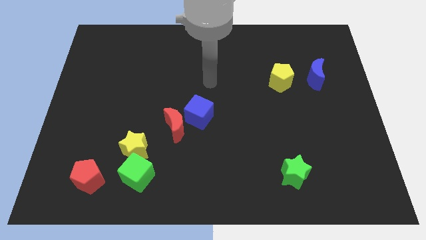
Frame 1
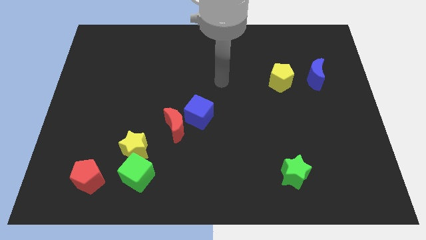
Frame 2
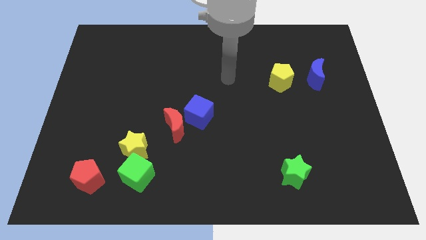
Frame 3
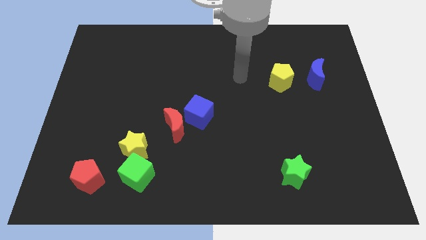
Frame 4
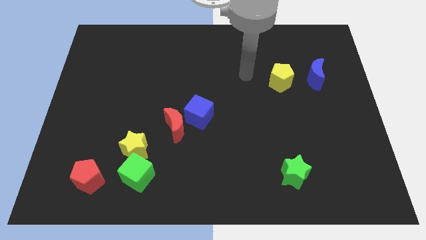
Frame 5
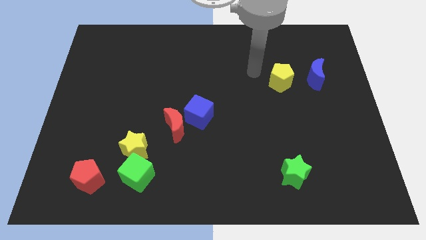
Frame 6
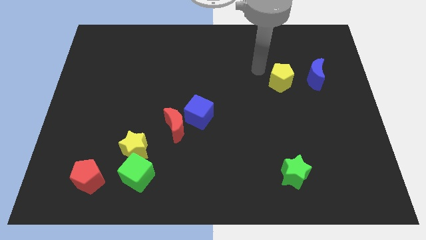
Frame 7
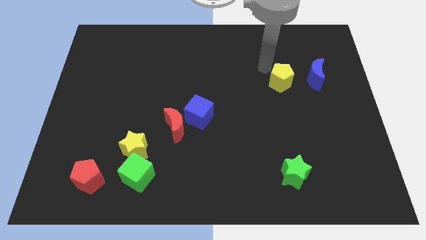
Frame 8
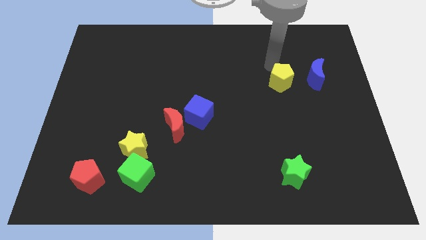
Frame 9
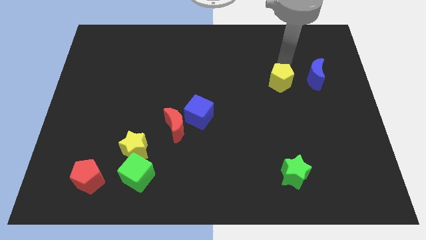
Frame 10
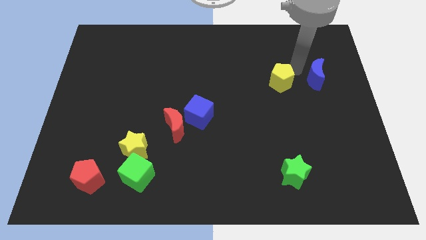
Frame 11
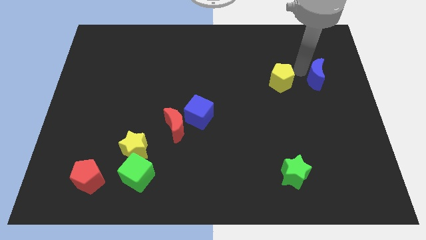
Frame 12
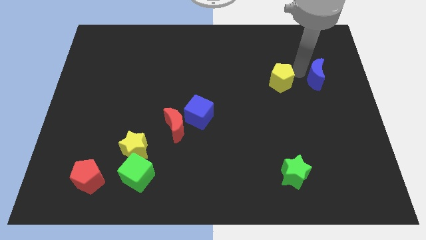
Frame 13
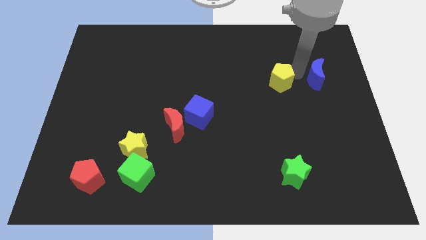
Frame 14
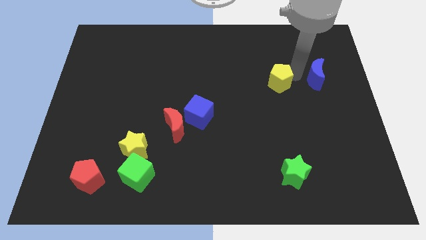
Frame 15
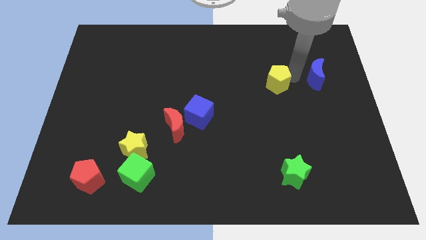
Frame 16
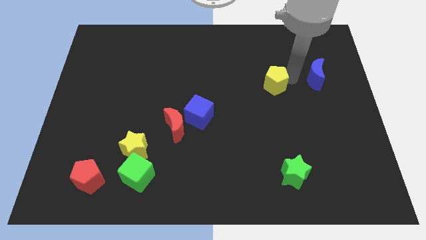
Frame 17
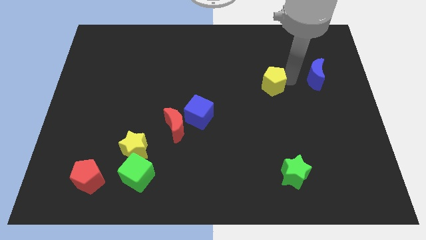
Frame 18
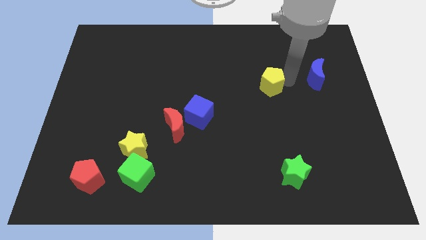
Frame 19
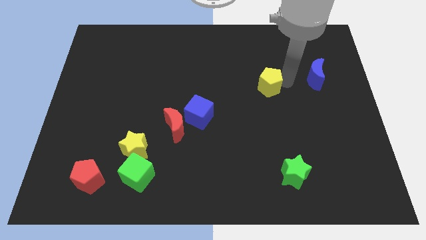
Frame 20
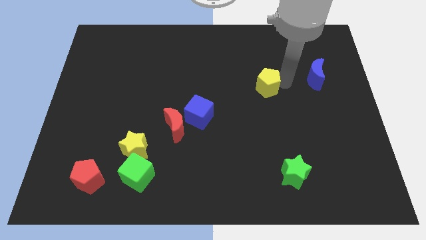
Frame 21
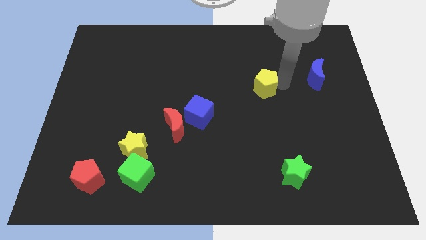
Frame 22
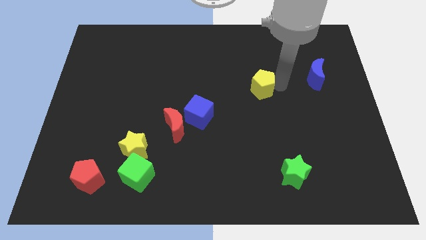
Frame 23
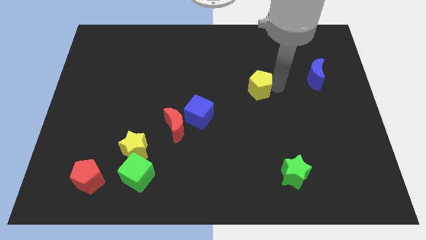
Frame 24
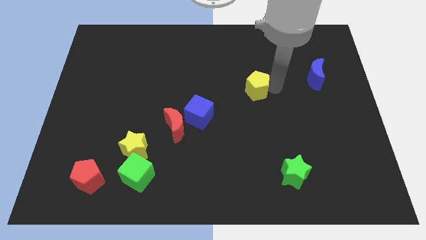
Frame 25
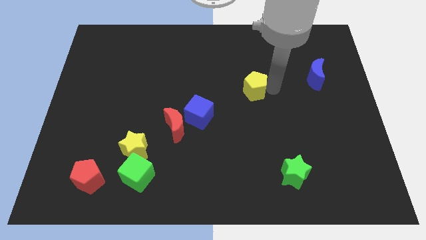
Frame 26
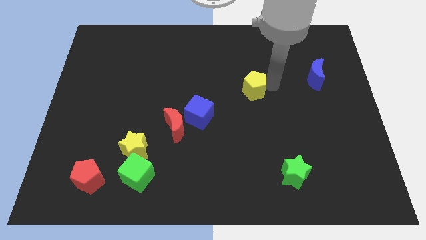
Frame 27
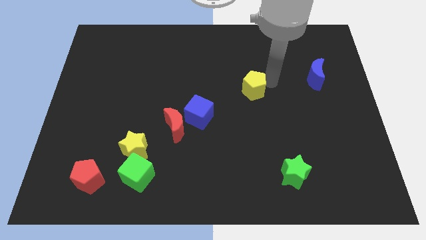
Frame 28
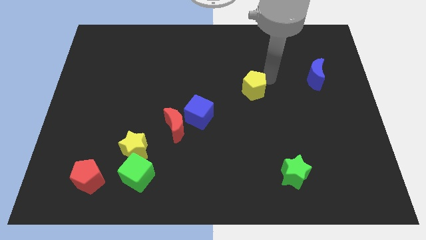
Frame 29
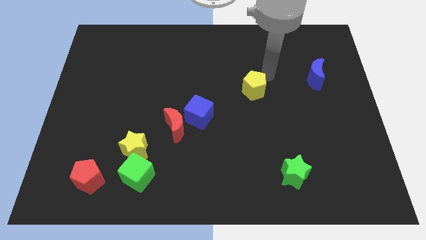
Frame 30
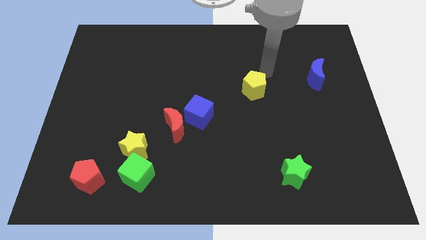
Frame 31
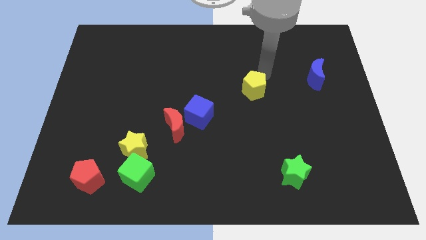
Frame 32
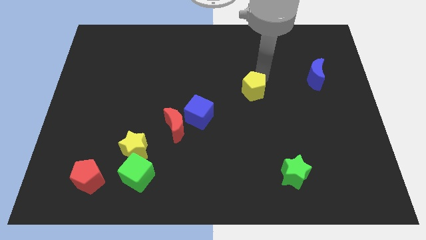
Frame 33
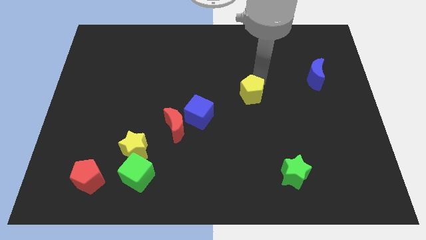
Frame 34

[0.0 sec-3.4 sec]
push the yellow pentagon down and then to the left a little bit

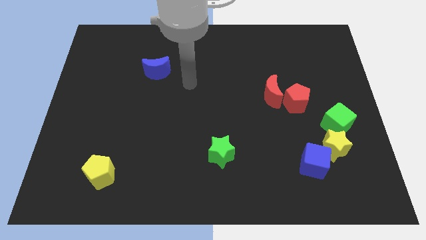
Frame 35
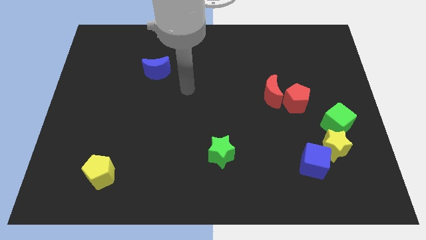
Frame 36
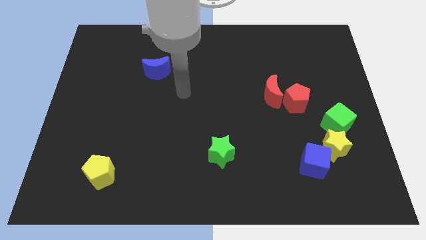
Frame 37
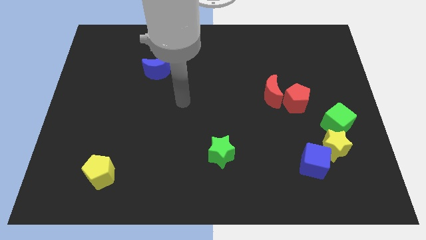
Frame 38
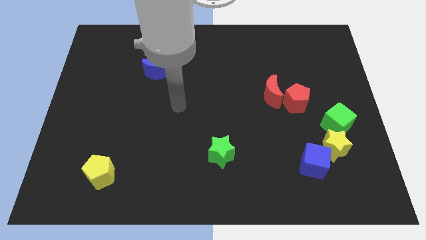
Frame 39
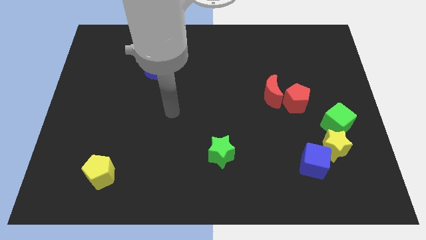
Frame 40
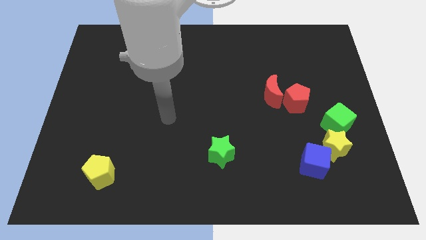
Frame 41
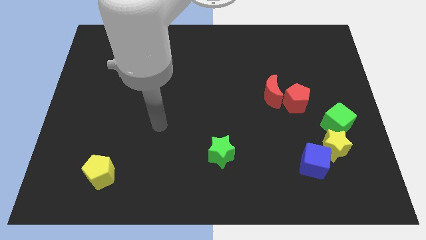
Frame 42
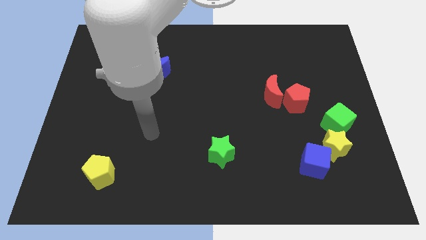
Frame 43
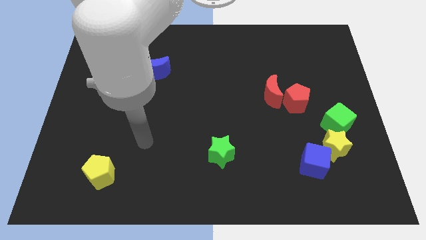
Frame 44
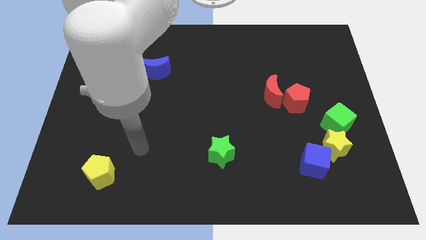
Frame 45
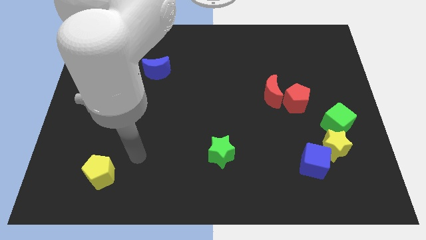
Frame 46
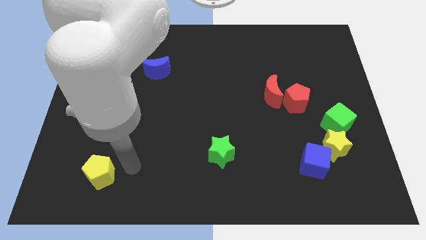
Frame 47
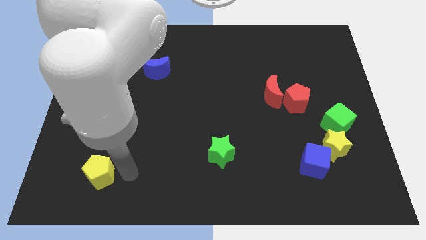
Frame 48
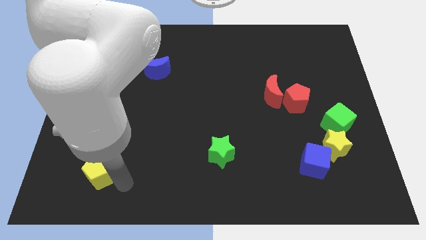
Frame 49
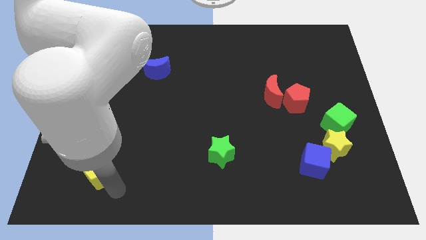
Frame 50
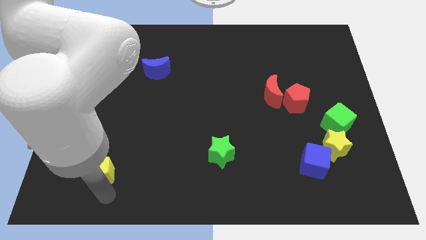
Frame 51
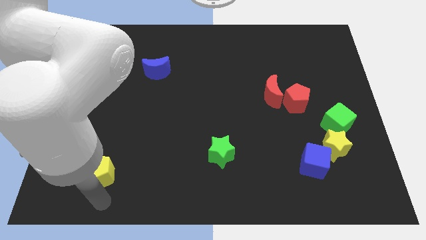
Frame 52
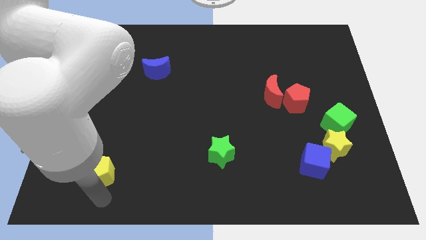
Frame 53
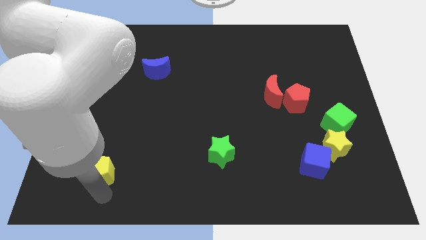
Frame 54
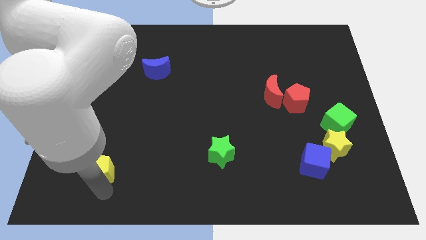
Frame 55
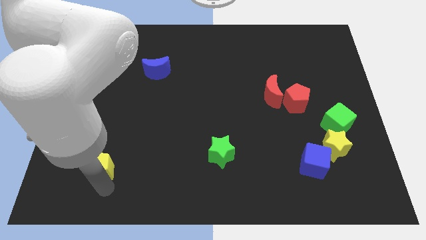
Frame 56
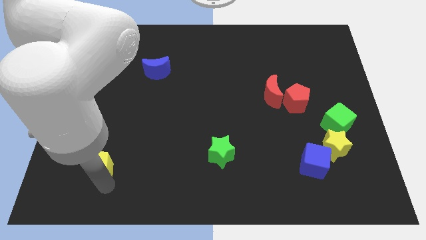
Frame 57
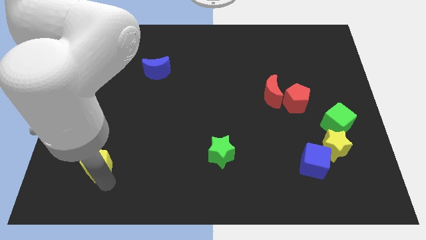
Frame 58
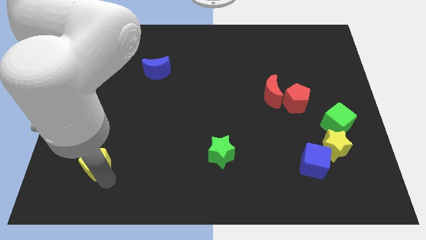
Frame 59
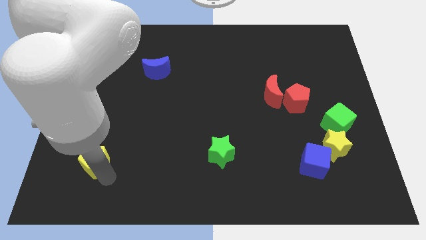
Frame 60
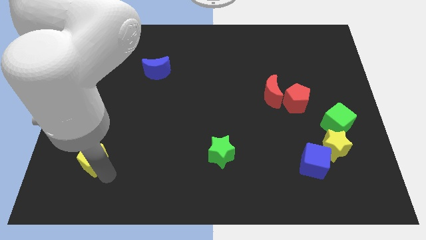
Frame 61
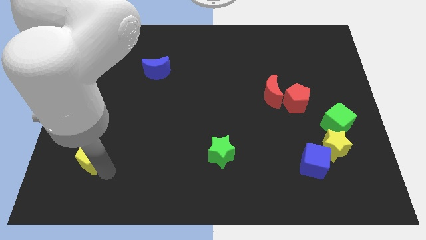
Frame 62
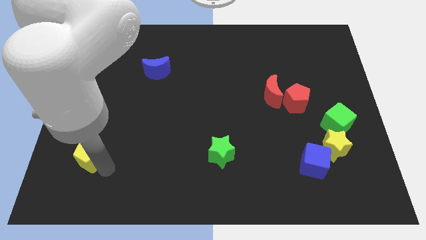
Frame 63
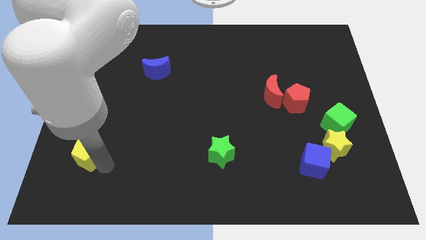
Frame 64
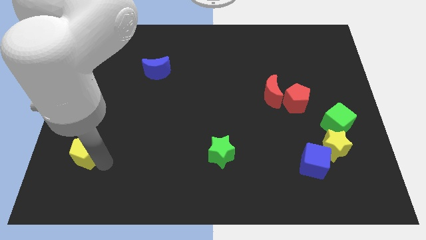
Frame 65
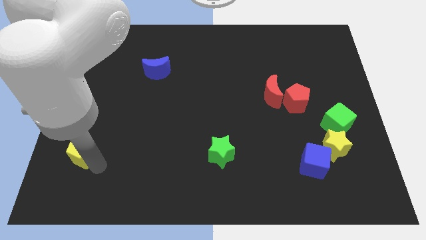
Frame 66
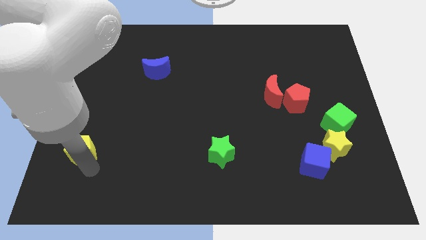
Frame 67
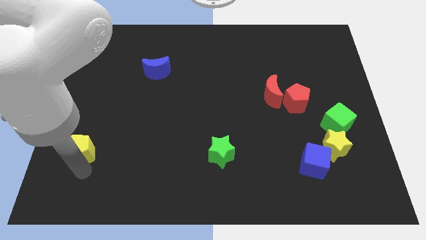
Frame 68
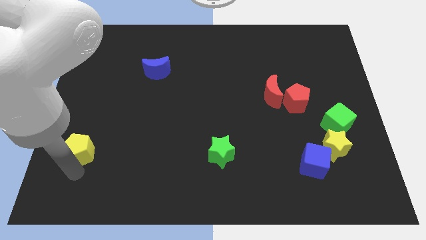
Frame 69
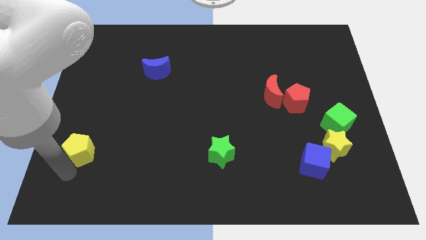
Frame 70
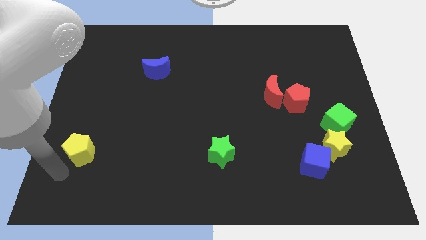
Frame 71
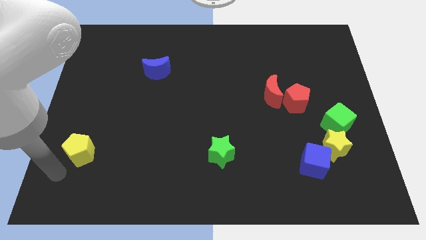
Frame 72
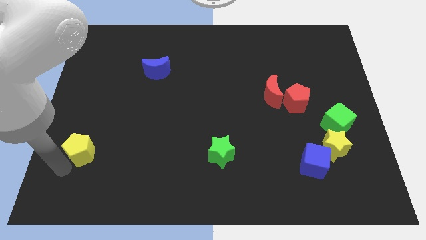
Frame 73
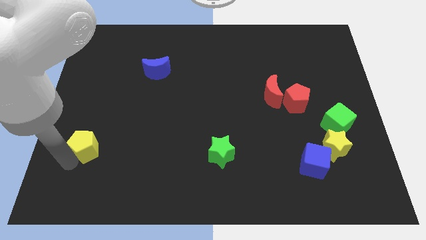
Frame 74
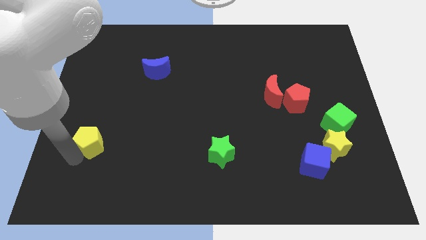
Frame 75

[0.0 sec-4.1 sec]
slightly move the yellow pentagon upwards

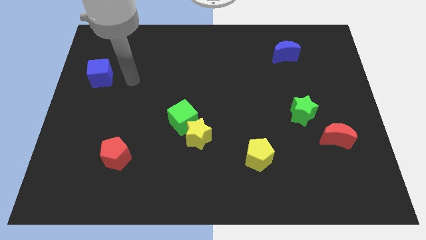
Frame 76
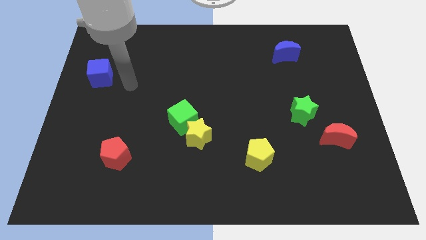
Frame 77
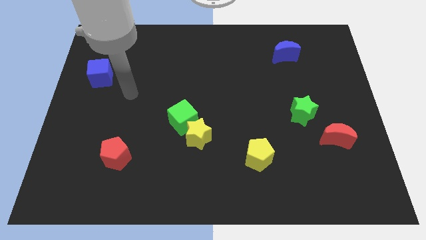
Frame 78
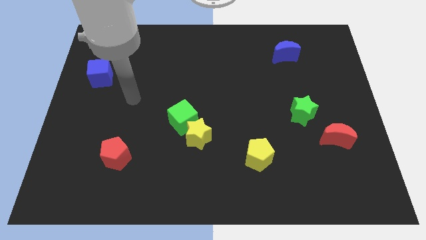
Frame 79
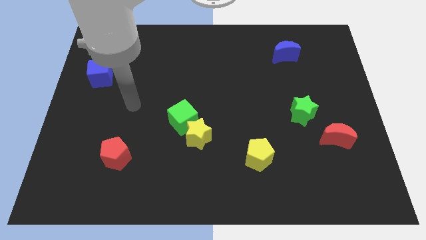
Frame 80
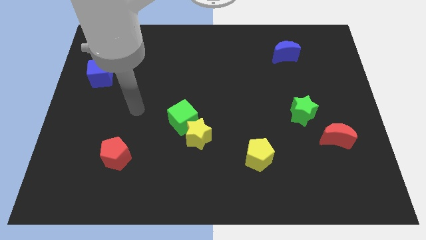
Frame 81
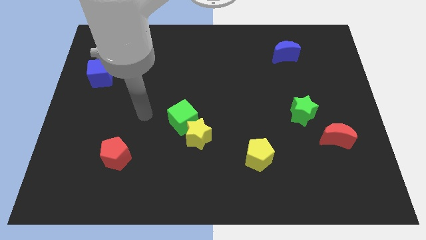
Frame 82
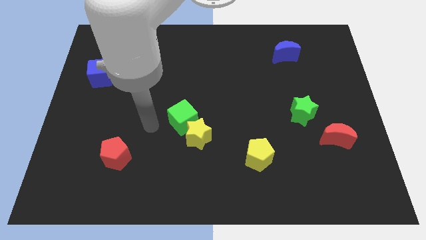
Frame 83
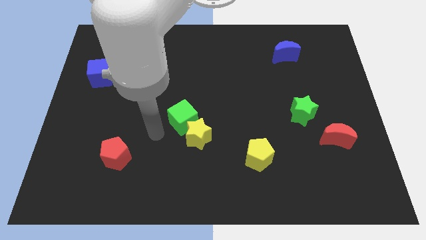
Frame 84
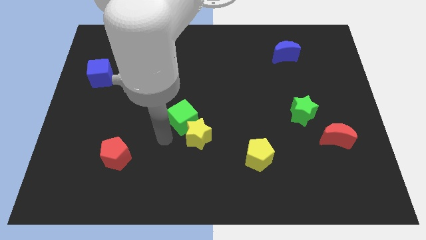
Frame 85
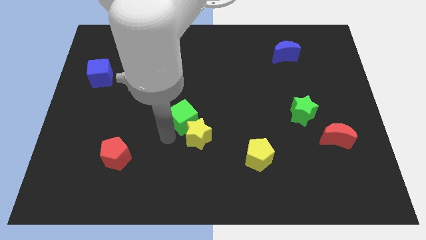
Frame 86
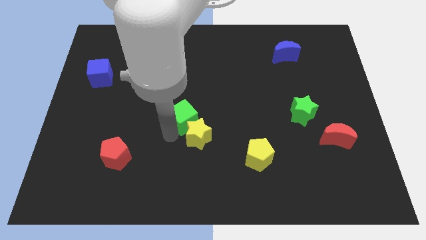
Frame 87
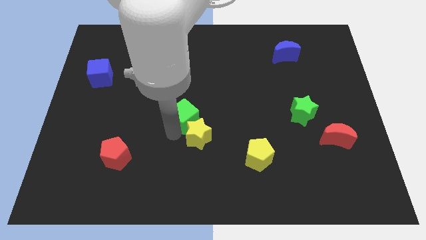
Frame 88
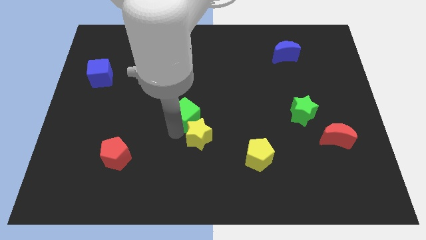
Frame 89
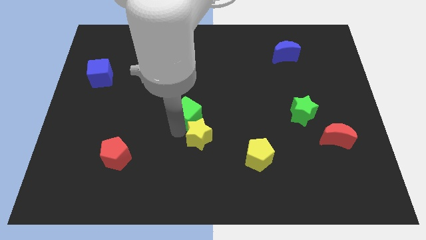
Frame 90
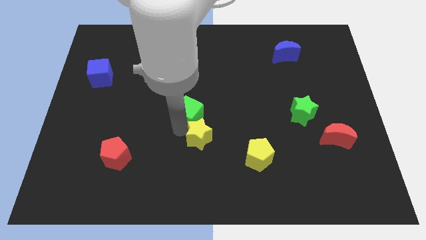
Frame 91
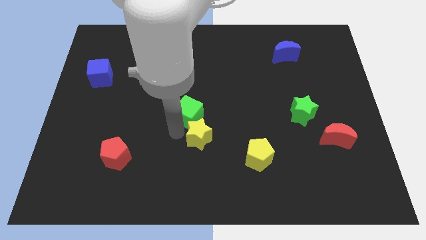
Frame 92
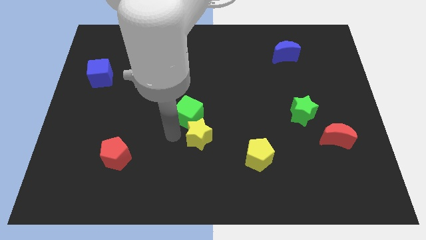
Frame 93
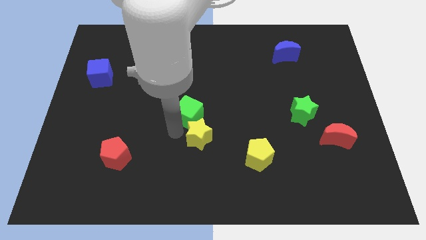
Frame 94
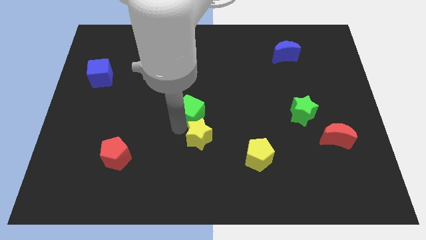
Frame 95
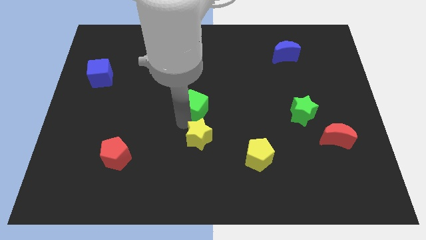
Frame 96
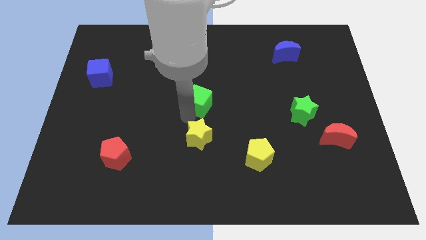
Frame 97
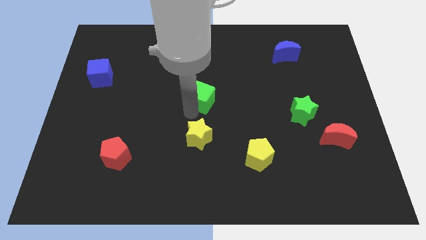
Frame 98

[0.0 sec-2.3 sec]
push the green cube a little bit up and right
